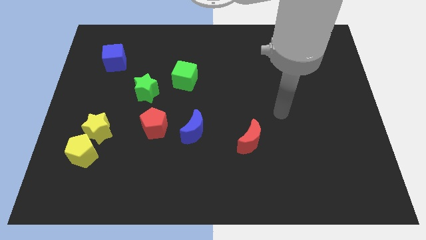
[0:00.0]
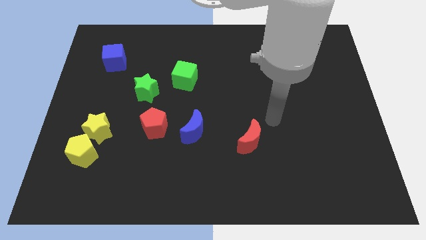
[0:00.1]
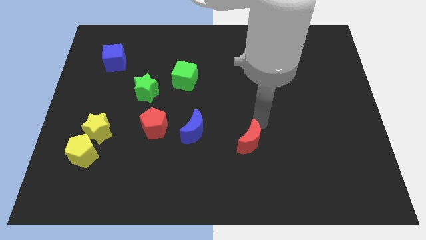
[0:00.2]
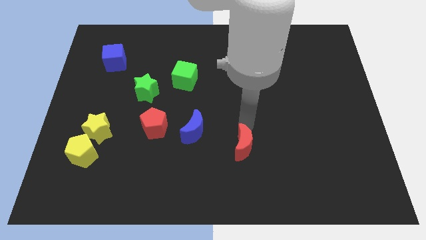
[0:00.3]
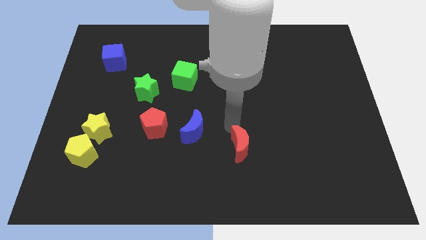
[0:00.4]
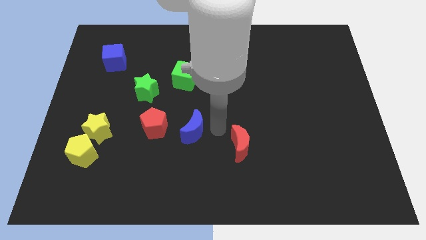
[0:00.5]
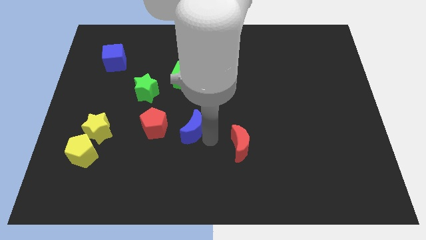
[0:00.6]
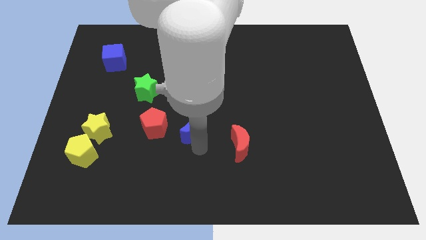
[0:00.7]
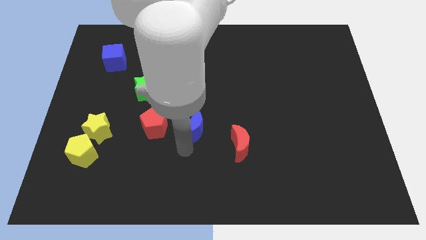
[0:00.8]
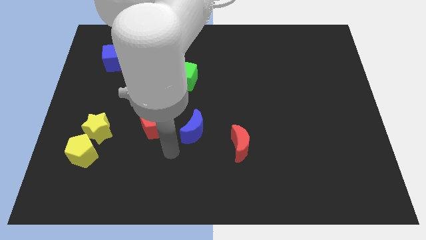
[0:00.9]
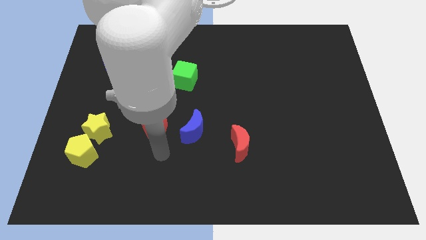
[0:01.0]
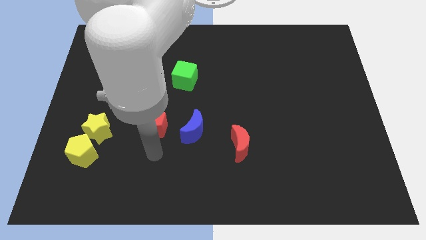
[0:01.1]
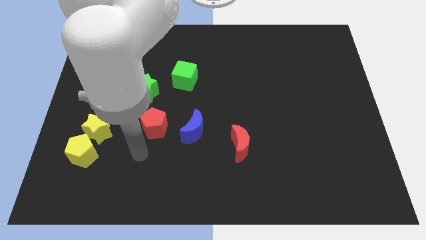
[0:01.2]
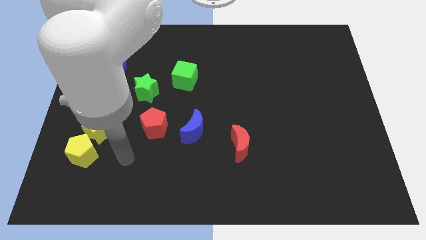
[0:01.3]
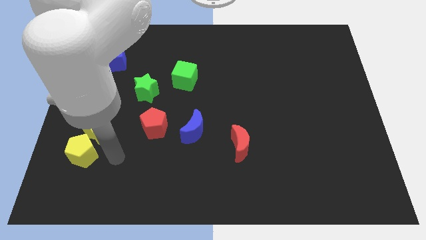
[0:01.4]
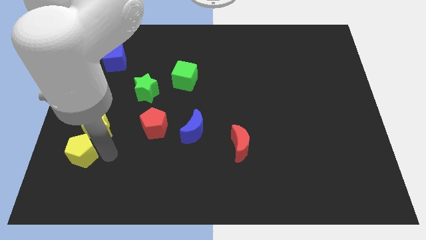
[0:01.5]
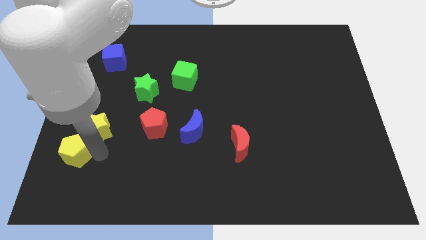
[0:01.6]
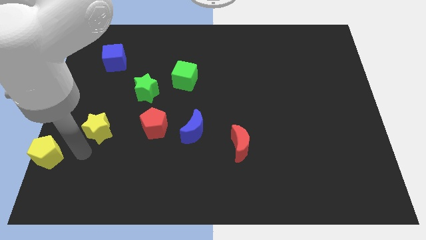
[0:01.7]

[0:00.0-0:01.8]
separate the yellow star from the yellow pentagon

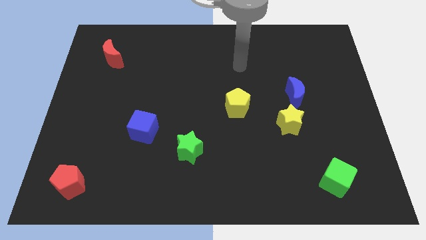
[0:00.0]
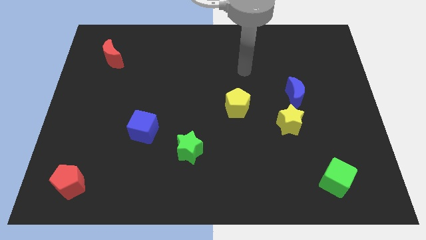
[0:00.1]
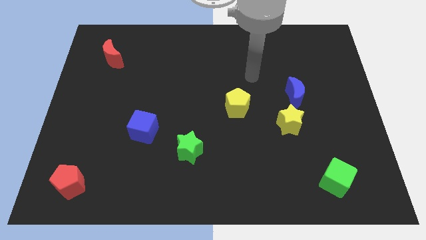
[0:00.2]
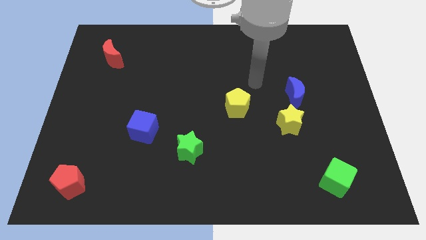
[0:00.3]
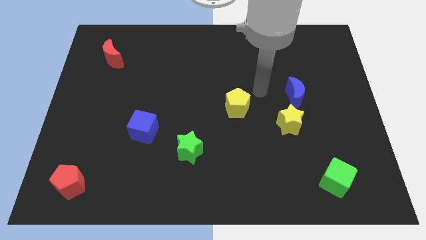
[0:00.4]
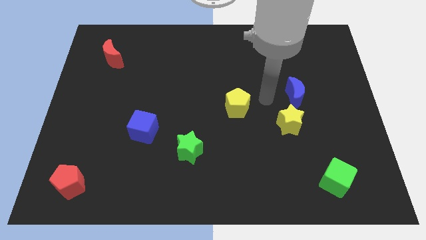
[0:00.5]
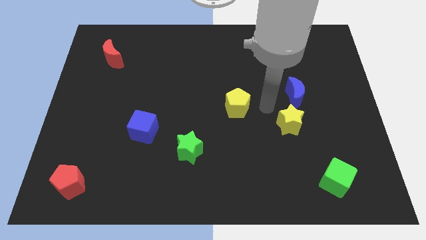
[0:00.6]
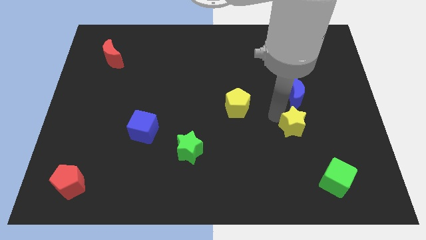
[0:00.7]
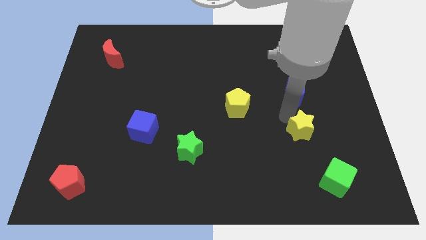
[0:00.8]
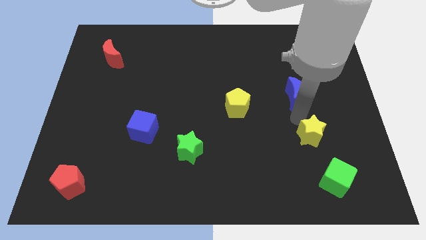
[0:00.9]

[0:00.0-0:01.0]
pull the blue moon apart from the yellow star

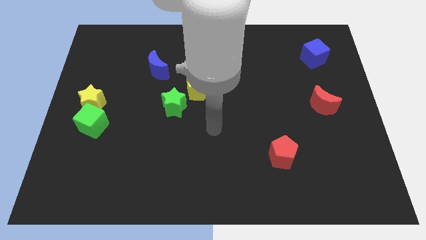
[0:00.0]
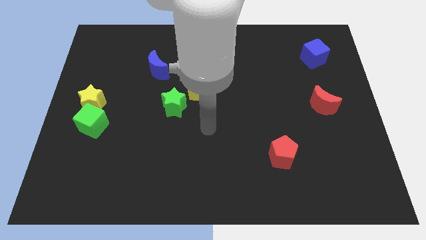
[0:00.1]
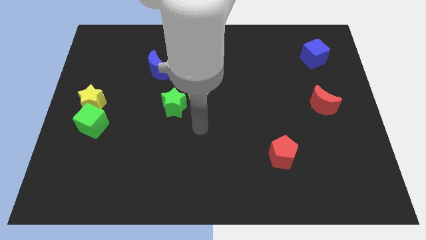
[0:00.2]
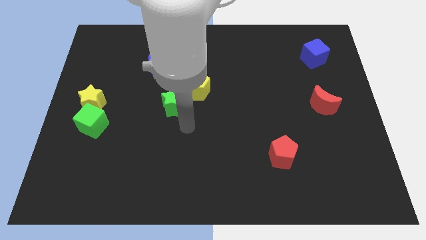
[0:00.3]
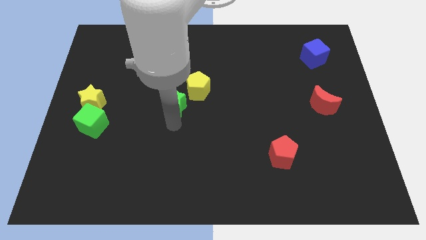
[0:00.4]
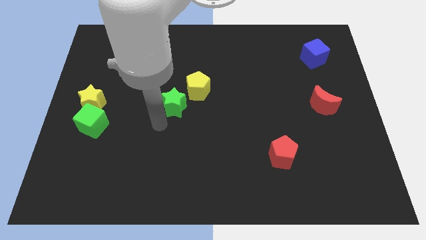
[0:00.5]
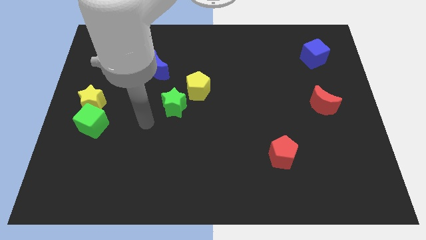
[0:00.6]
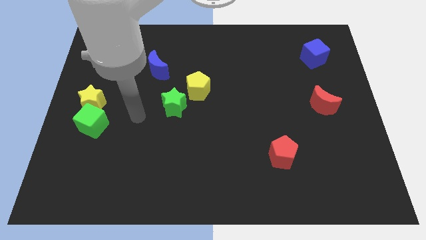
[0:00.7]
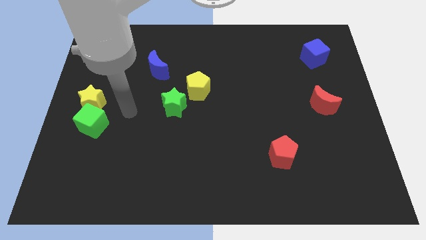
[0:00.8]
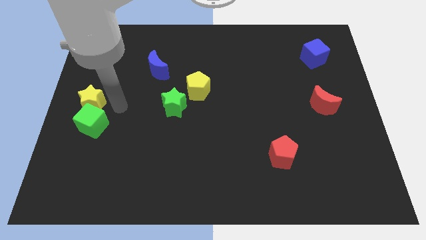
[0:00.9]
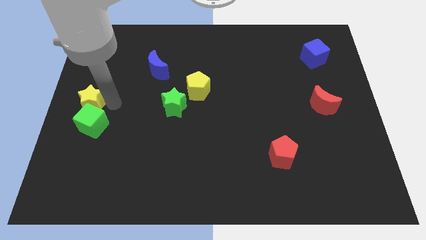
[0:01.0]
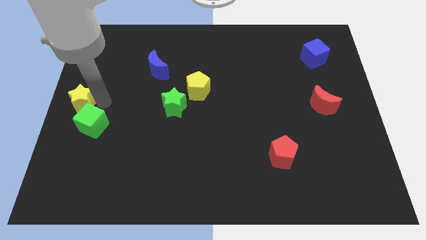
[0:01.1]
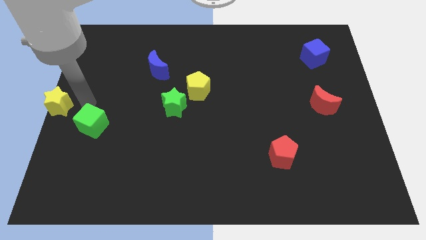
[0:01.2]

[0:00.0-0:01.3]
separate the green cube from the yellow star

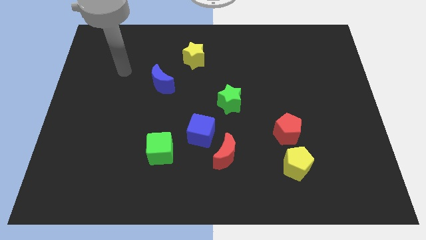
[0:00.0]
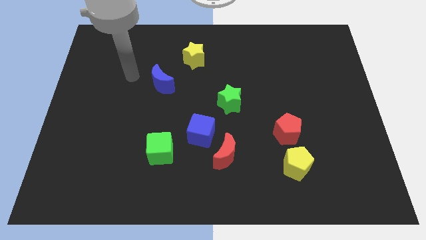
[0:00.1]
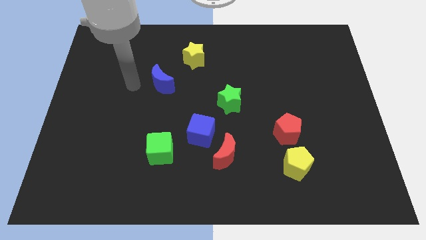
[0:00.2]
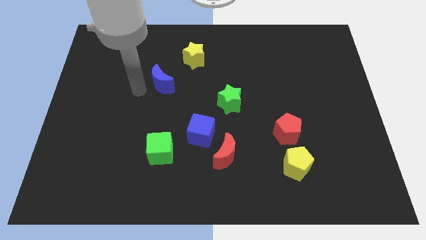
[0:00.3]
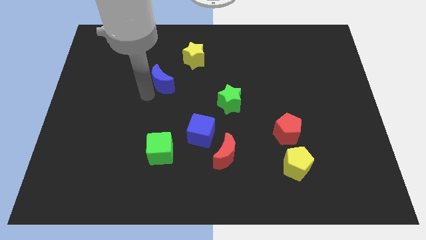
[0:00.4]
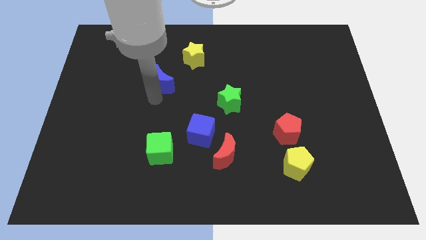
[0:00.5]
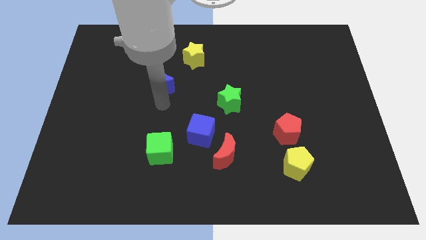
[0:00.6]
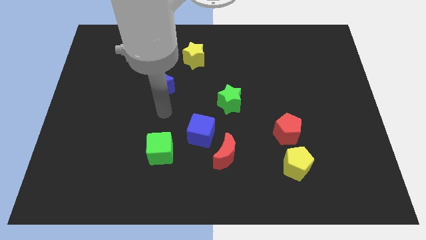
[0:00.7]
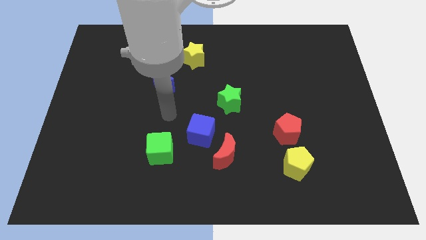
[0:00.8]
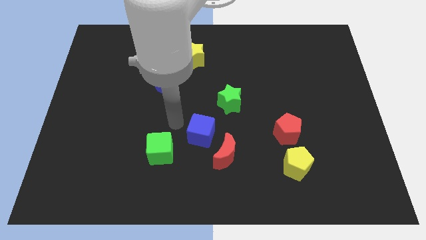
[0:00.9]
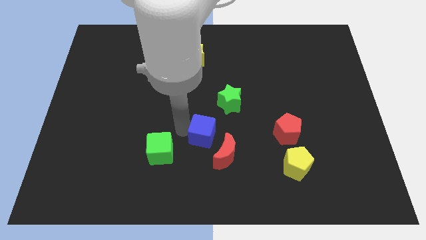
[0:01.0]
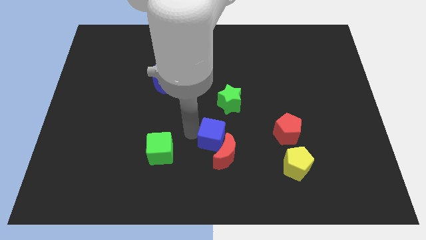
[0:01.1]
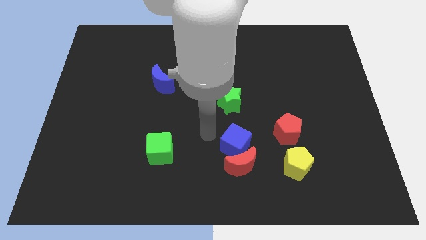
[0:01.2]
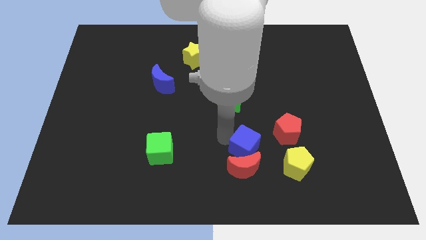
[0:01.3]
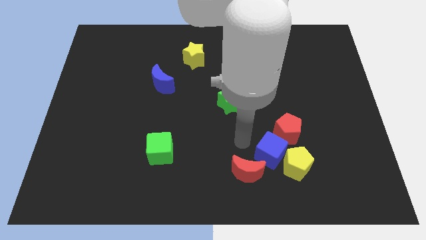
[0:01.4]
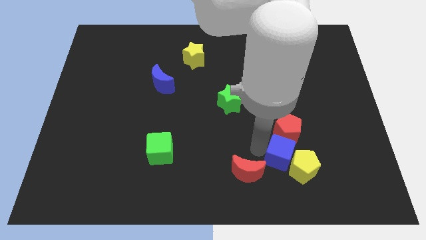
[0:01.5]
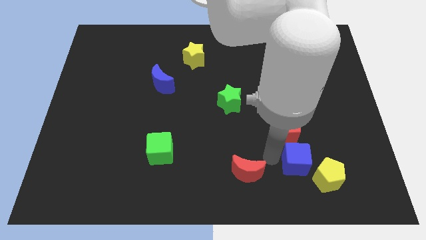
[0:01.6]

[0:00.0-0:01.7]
separate the red moon from the blue cube

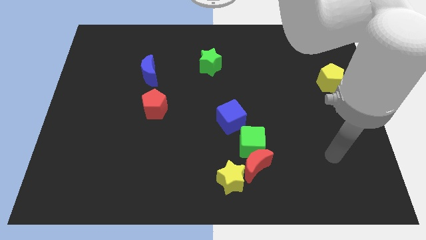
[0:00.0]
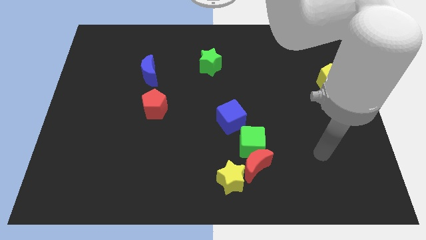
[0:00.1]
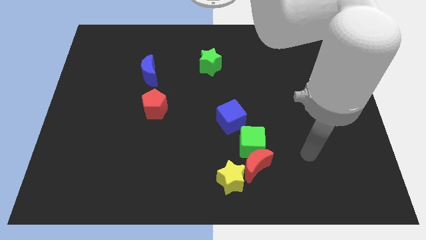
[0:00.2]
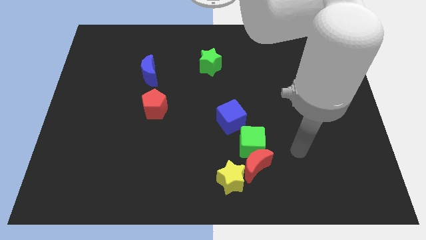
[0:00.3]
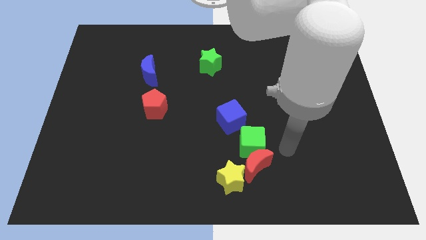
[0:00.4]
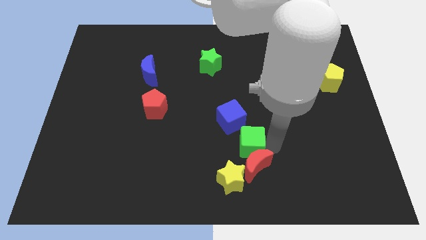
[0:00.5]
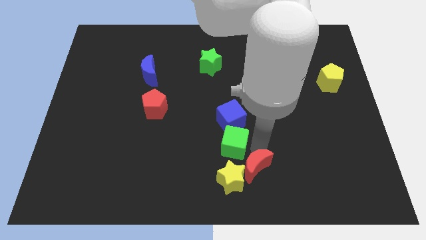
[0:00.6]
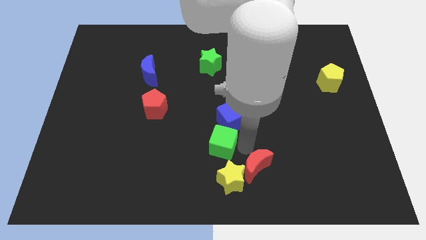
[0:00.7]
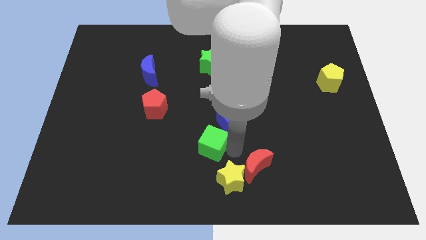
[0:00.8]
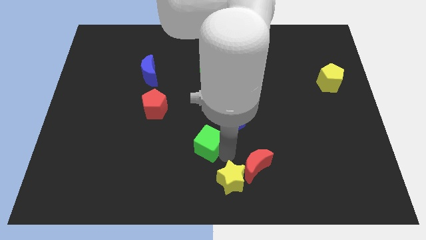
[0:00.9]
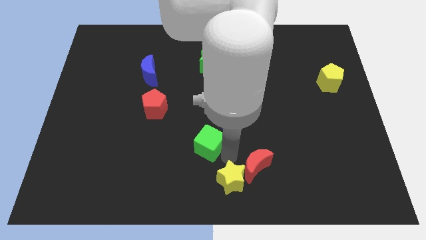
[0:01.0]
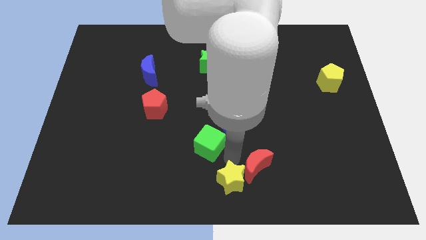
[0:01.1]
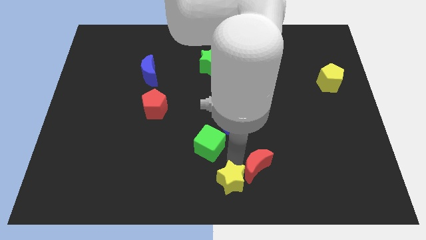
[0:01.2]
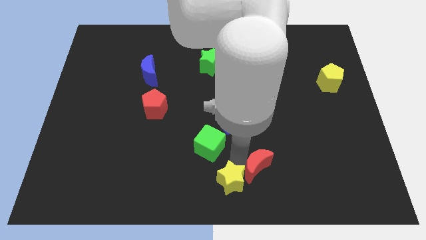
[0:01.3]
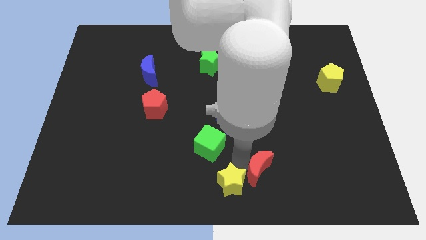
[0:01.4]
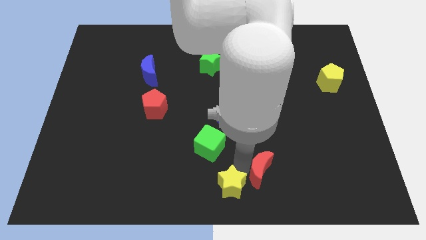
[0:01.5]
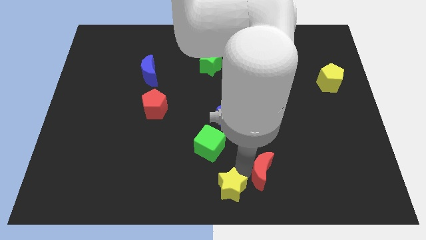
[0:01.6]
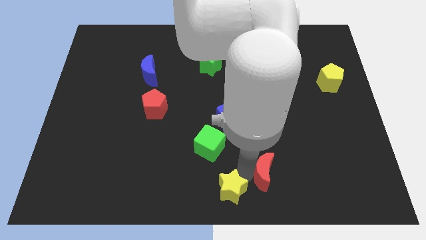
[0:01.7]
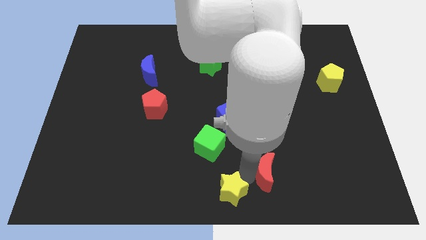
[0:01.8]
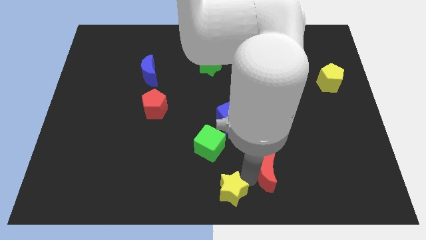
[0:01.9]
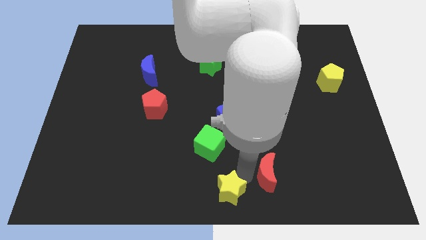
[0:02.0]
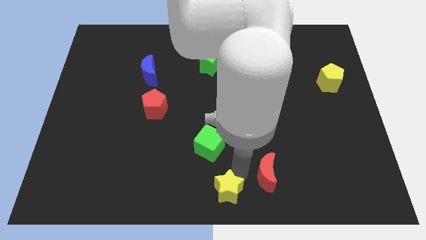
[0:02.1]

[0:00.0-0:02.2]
separate the red moon from the green cube and yellow star

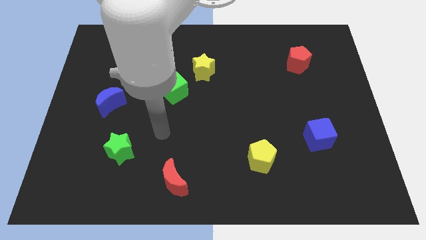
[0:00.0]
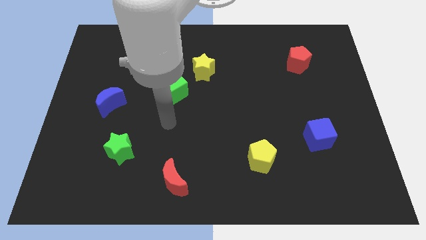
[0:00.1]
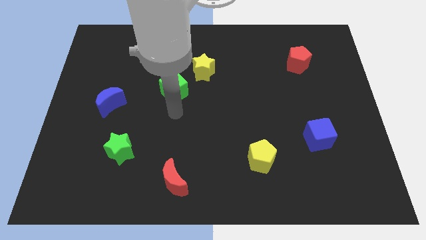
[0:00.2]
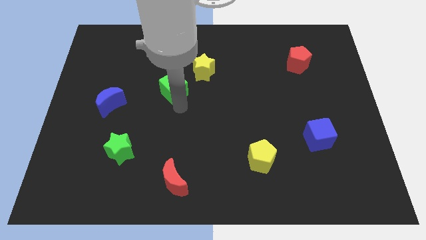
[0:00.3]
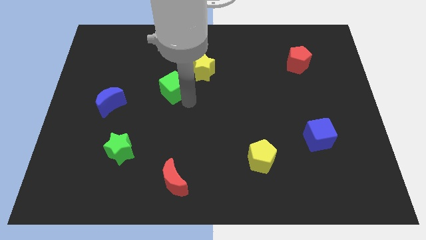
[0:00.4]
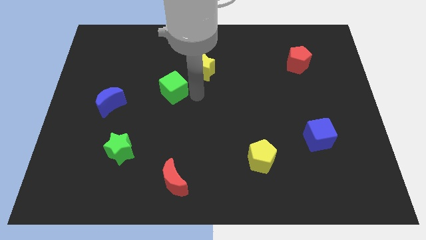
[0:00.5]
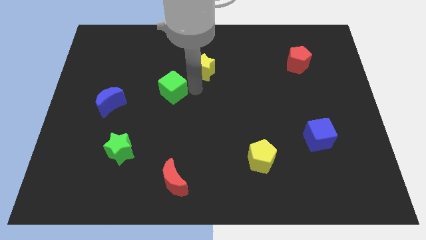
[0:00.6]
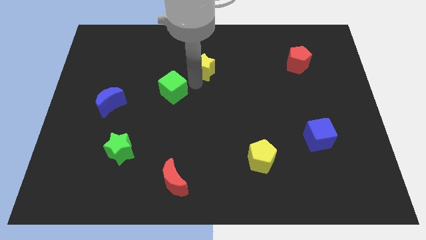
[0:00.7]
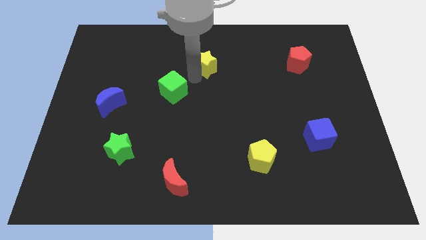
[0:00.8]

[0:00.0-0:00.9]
move the green cube away from the yellow star

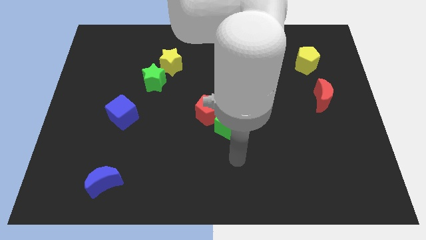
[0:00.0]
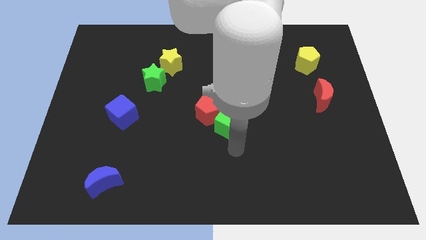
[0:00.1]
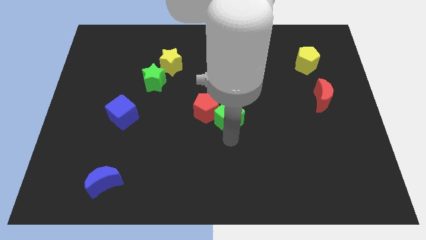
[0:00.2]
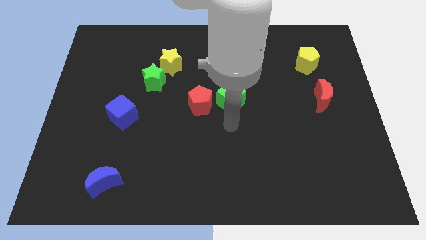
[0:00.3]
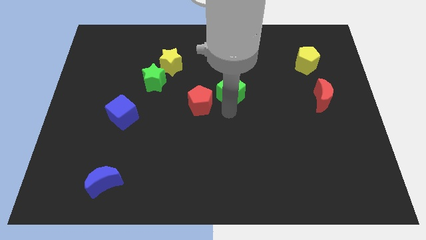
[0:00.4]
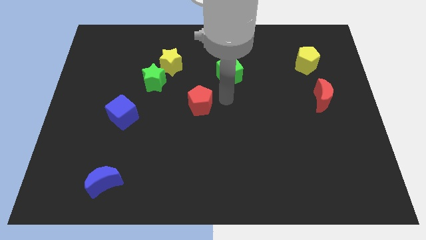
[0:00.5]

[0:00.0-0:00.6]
pull the red pentagon apart from the green cube
